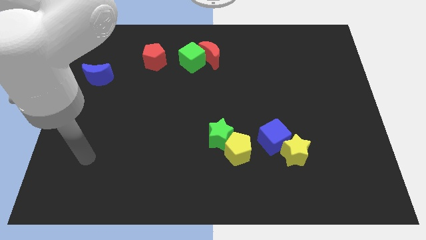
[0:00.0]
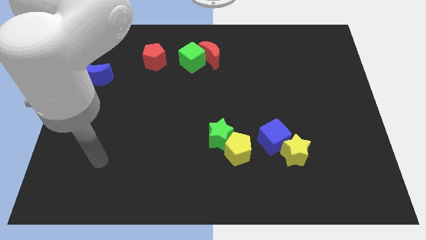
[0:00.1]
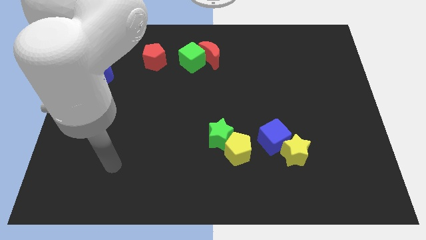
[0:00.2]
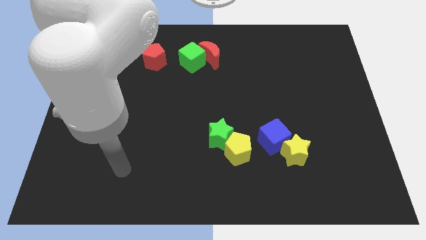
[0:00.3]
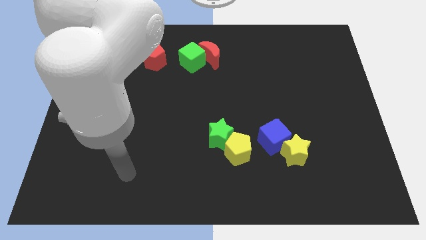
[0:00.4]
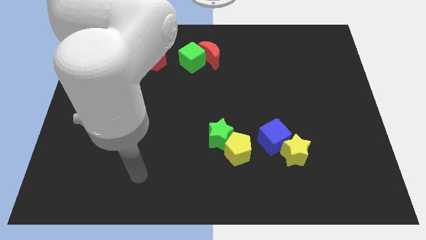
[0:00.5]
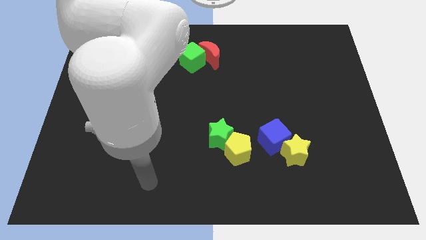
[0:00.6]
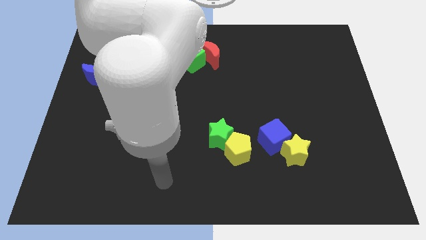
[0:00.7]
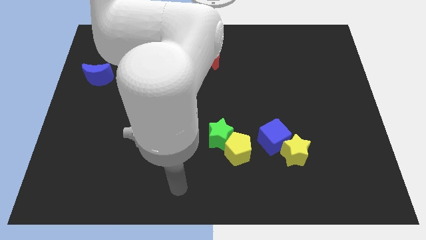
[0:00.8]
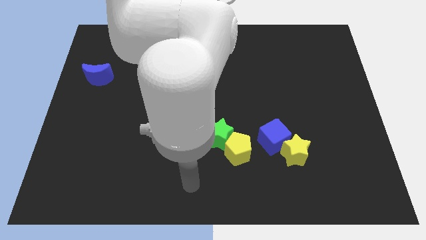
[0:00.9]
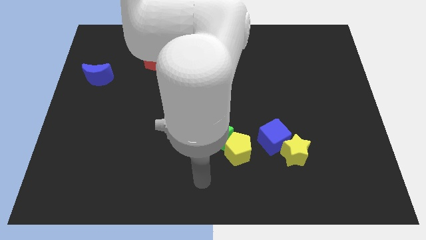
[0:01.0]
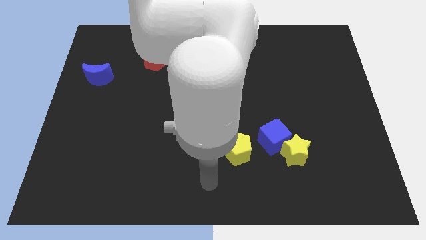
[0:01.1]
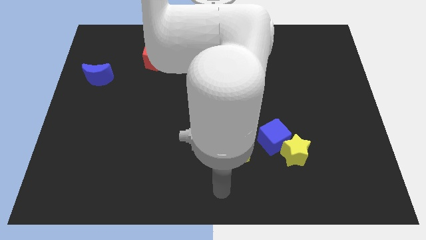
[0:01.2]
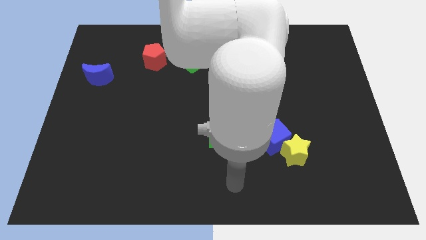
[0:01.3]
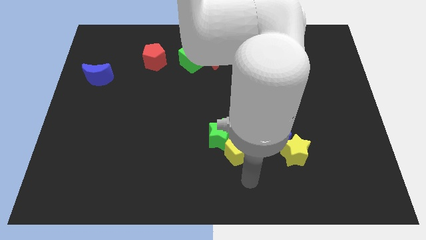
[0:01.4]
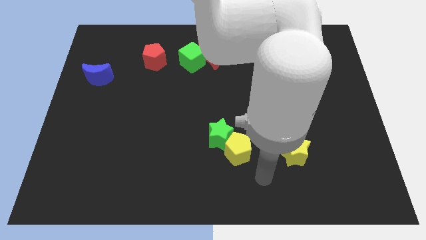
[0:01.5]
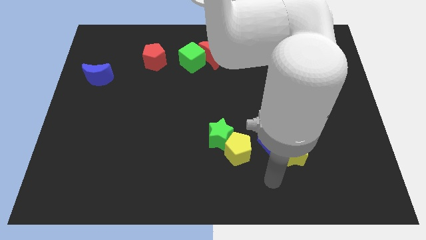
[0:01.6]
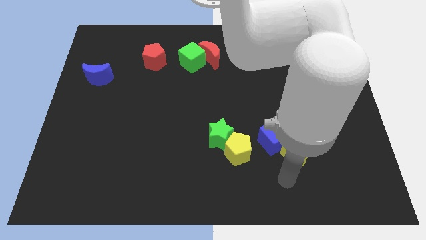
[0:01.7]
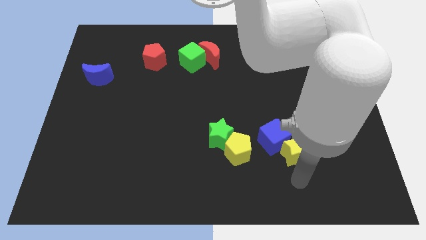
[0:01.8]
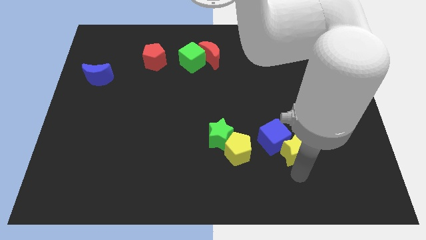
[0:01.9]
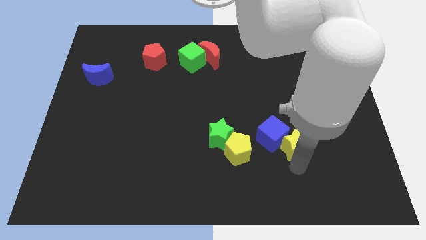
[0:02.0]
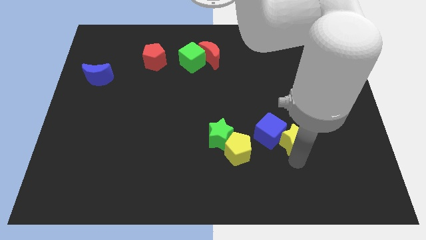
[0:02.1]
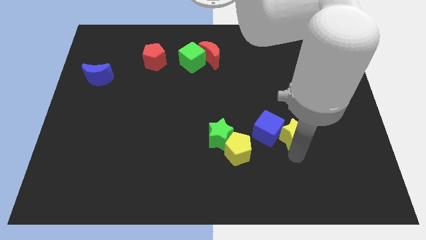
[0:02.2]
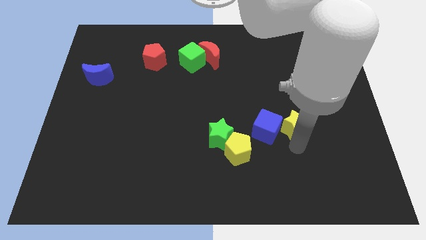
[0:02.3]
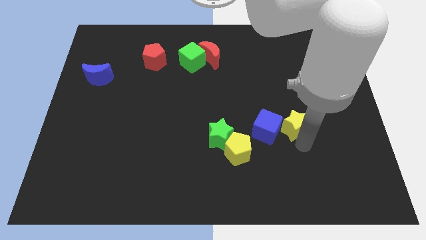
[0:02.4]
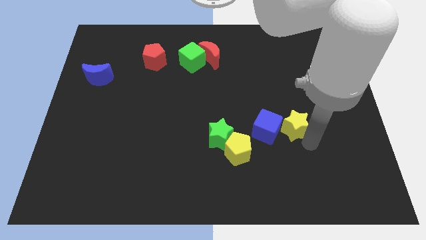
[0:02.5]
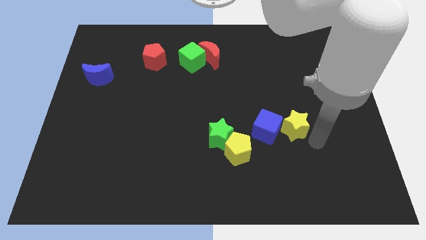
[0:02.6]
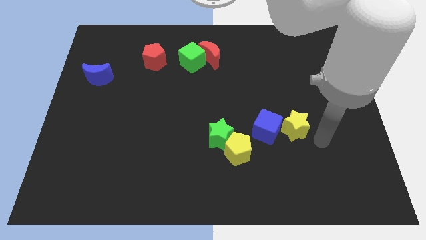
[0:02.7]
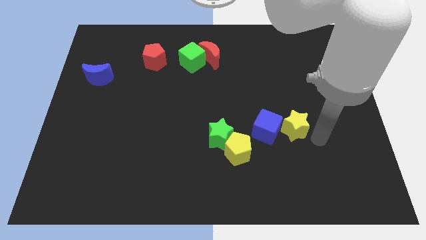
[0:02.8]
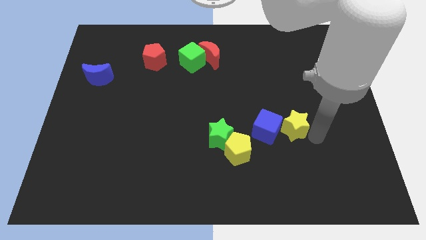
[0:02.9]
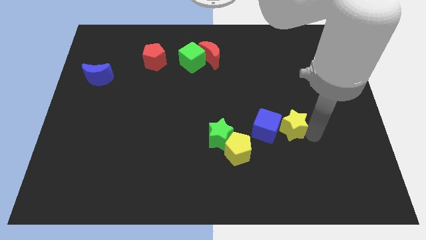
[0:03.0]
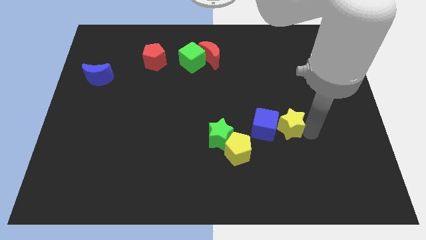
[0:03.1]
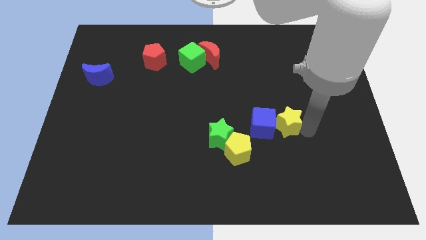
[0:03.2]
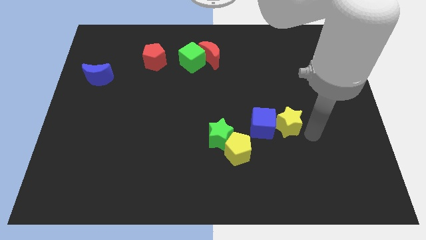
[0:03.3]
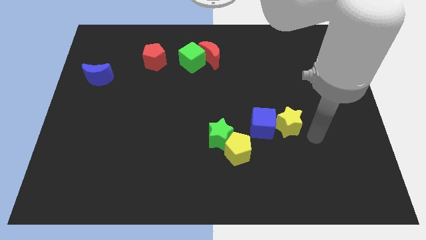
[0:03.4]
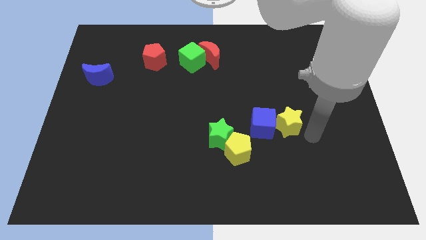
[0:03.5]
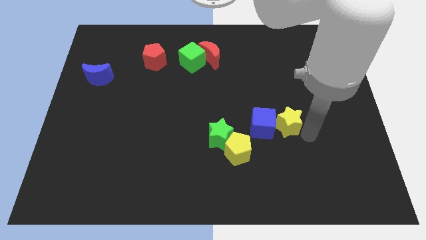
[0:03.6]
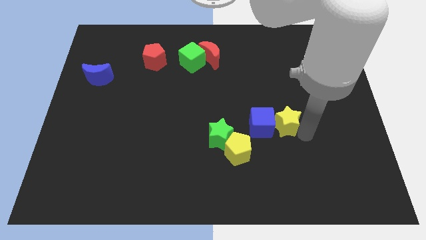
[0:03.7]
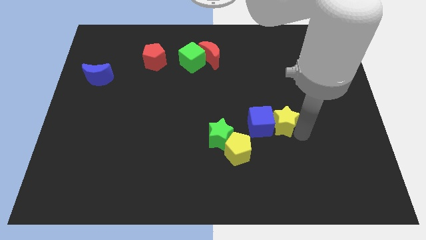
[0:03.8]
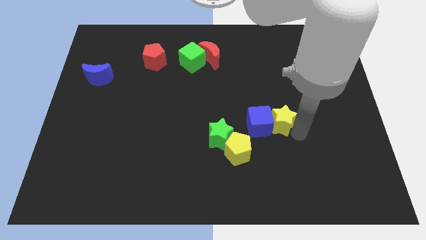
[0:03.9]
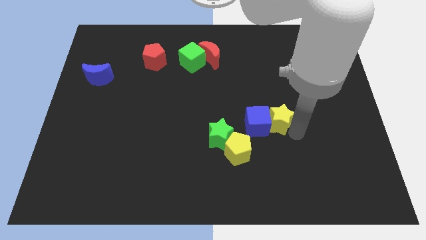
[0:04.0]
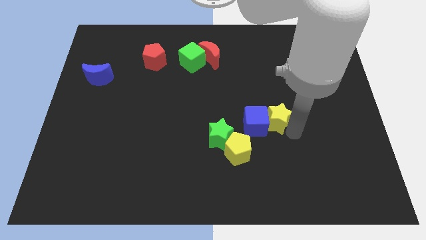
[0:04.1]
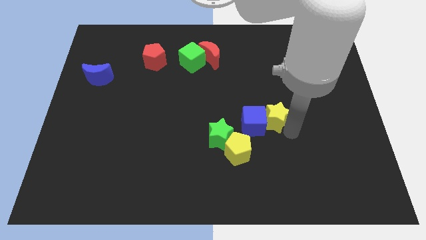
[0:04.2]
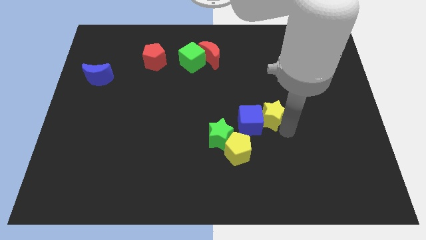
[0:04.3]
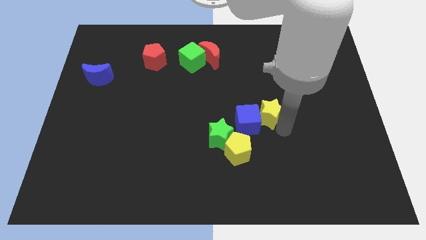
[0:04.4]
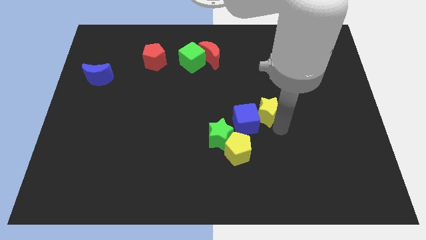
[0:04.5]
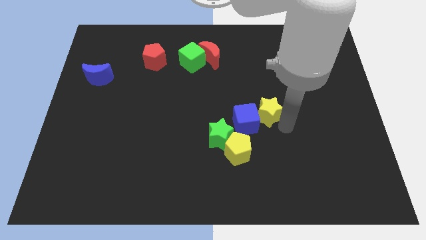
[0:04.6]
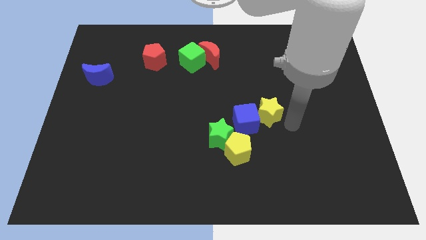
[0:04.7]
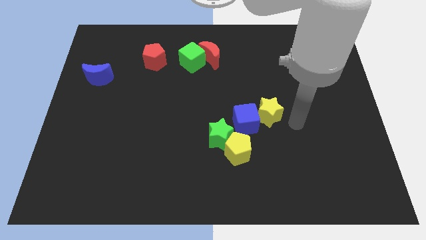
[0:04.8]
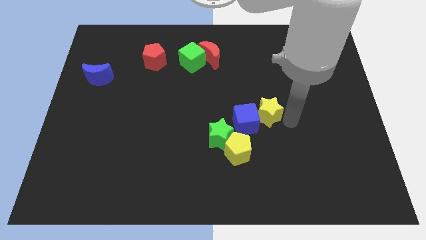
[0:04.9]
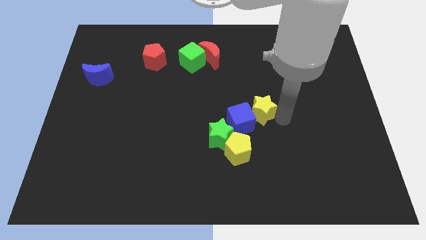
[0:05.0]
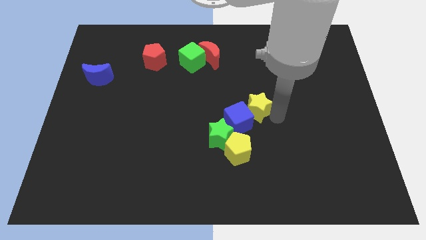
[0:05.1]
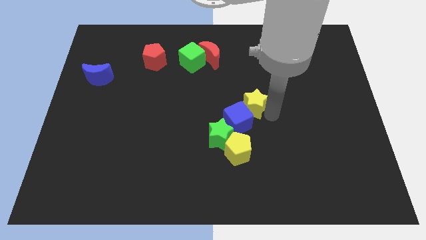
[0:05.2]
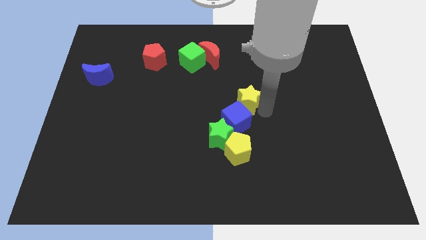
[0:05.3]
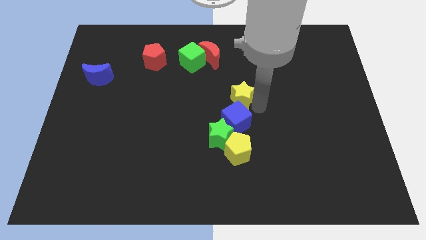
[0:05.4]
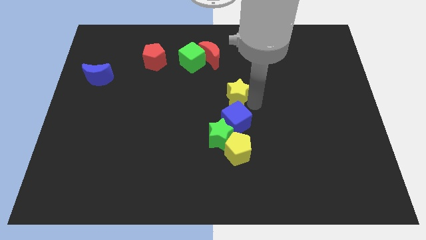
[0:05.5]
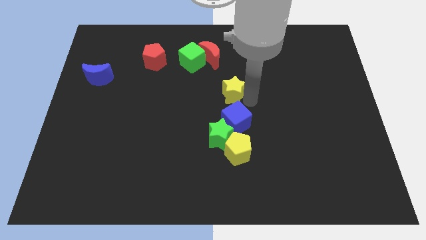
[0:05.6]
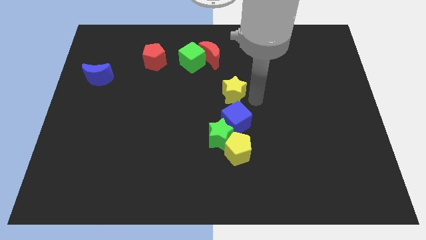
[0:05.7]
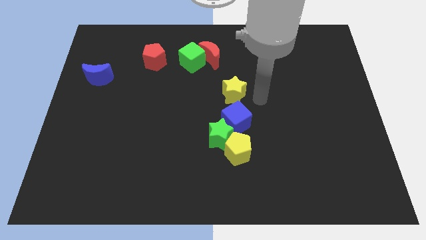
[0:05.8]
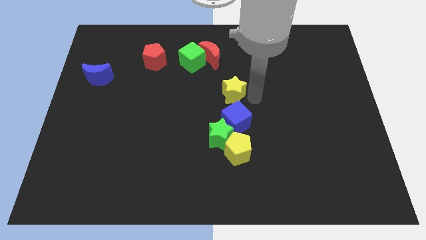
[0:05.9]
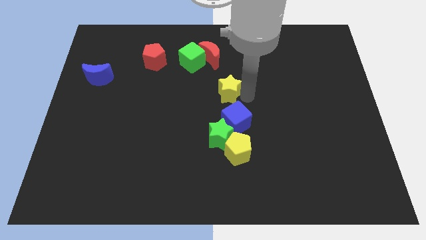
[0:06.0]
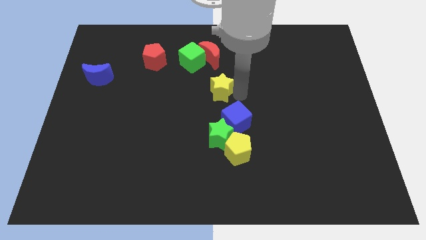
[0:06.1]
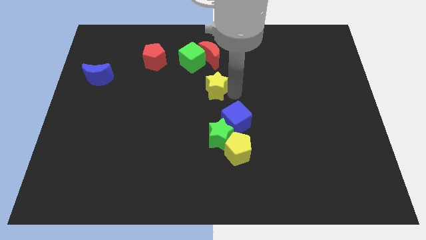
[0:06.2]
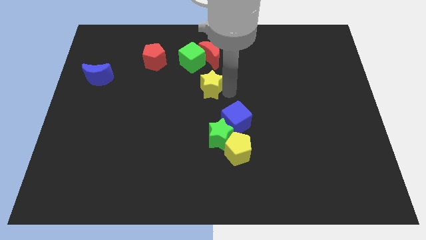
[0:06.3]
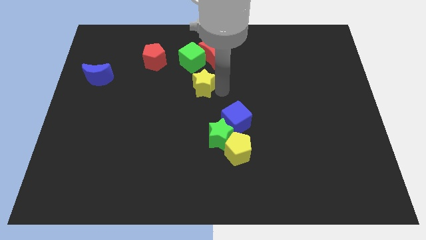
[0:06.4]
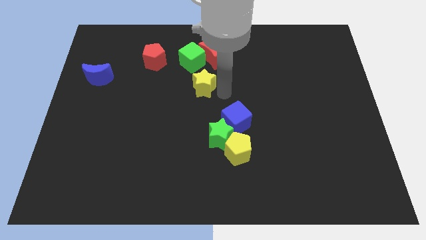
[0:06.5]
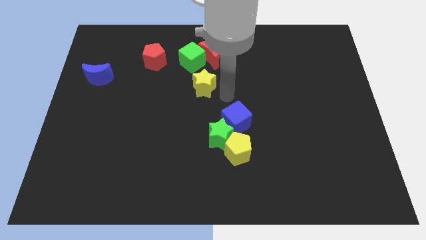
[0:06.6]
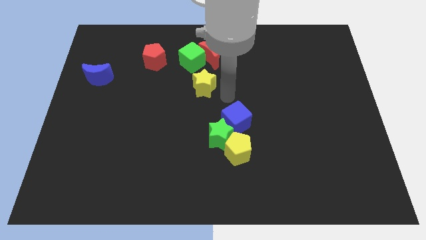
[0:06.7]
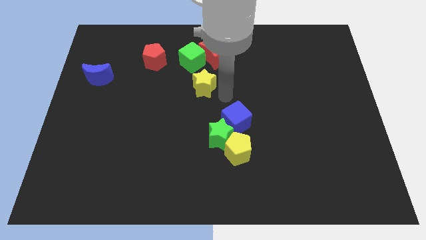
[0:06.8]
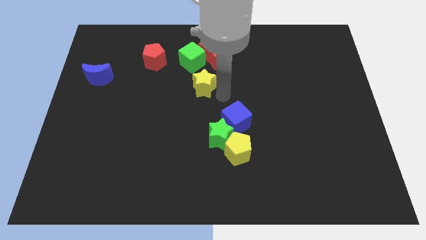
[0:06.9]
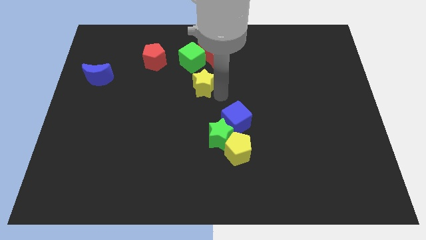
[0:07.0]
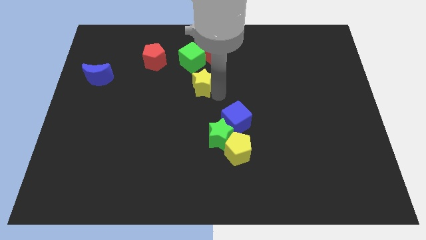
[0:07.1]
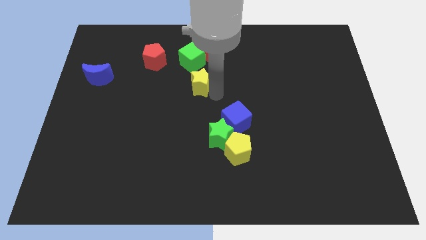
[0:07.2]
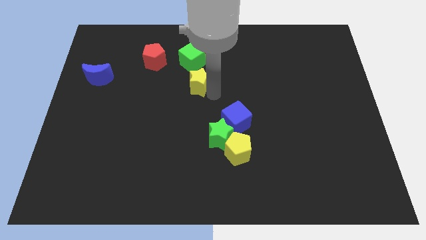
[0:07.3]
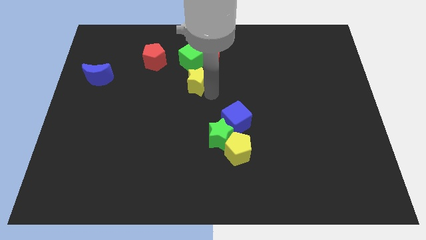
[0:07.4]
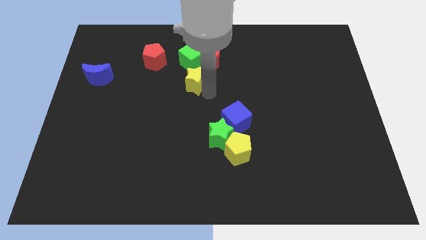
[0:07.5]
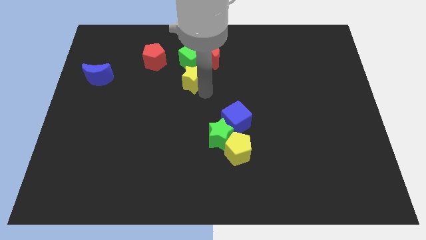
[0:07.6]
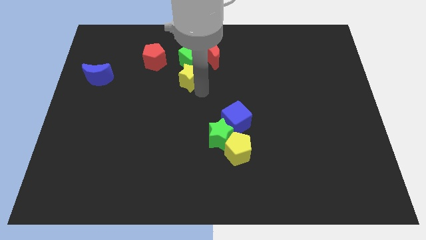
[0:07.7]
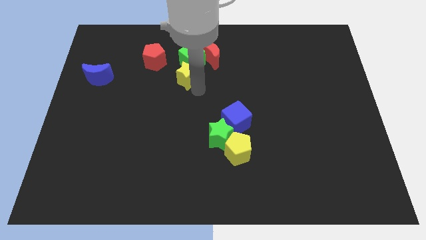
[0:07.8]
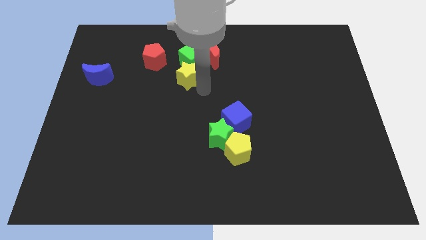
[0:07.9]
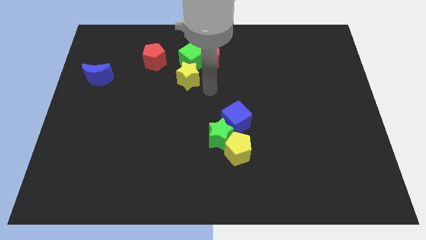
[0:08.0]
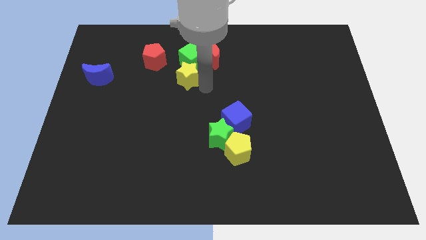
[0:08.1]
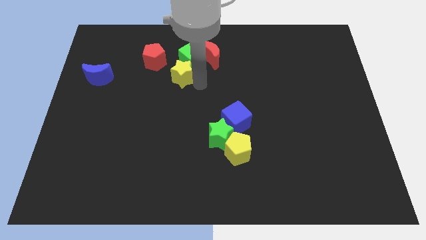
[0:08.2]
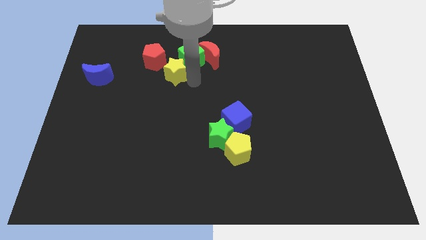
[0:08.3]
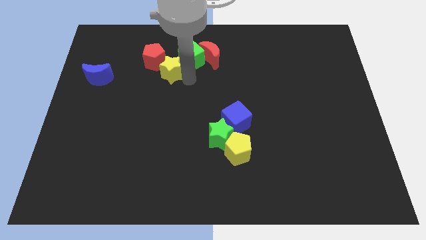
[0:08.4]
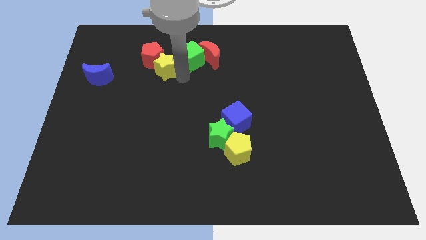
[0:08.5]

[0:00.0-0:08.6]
move the yellow star to the red pentagon
